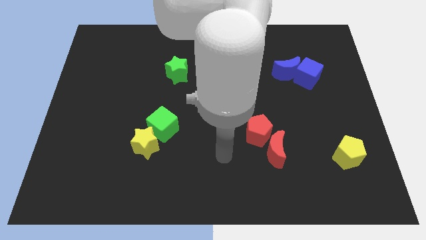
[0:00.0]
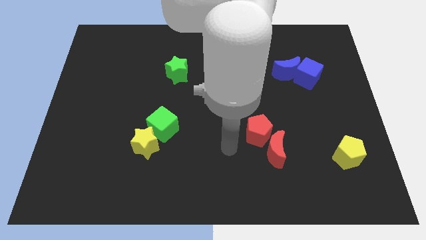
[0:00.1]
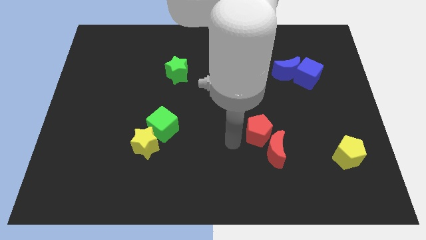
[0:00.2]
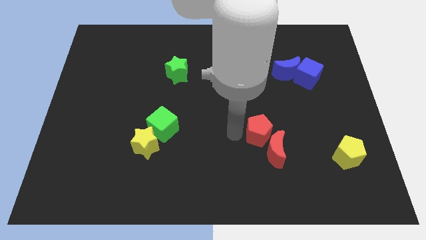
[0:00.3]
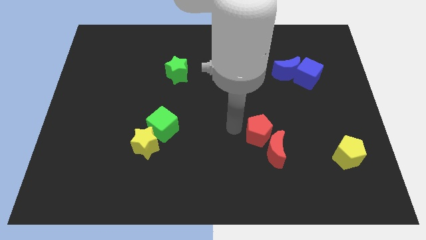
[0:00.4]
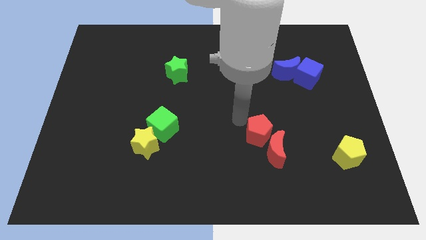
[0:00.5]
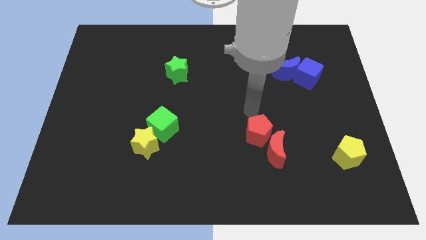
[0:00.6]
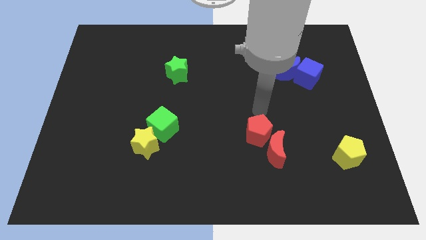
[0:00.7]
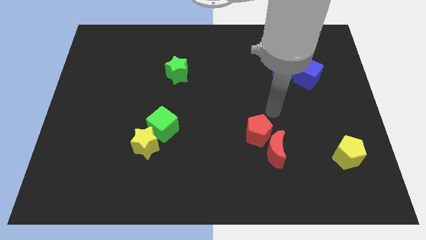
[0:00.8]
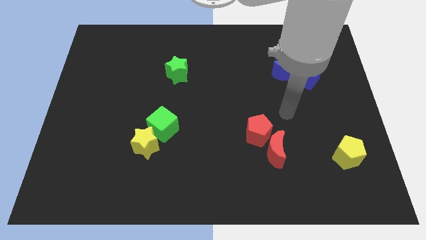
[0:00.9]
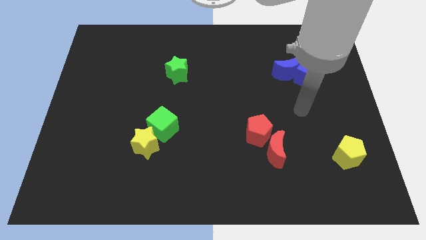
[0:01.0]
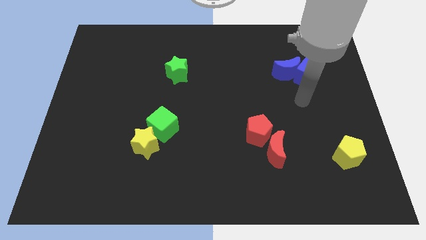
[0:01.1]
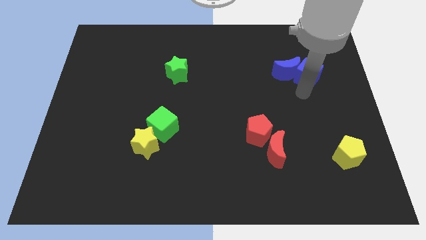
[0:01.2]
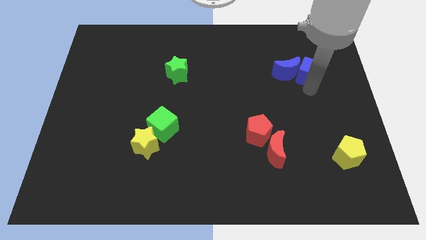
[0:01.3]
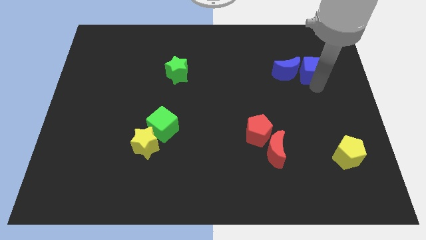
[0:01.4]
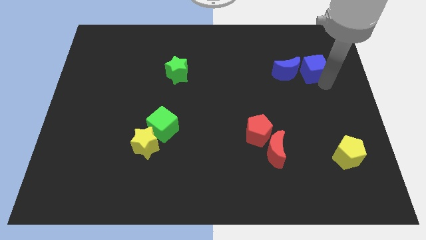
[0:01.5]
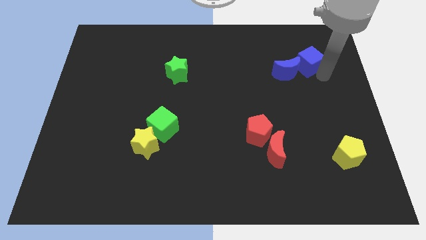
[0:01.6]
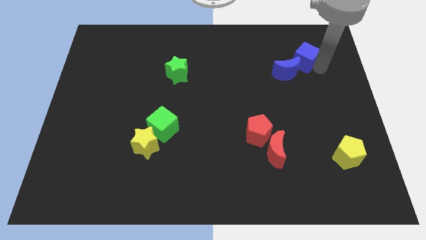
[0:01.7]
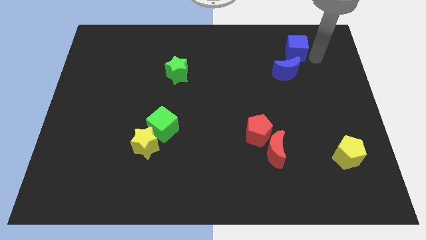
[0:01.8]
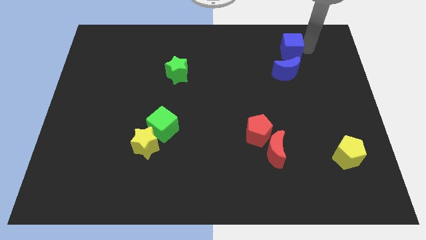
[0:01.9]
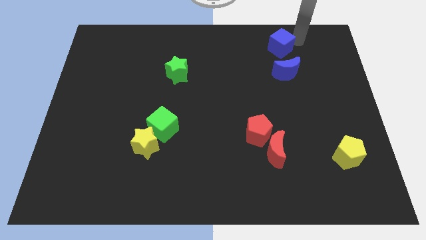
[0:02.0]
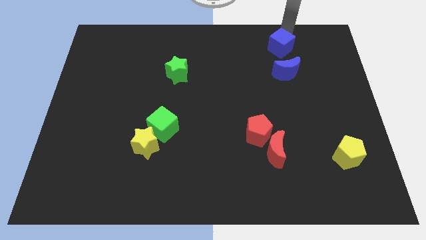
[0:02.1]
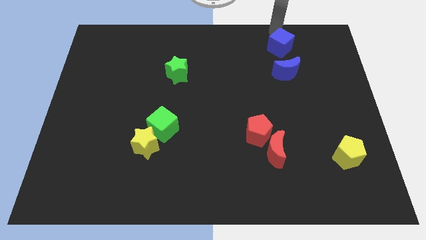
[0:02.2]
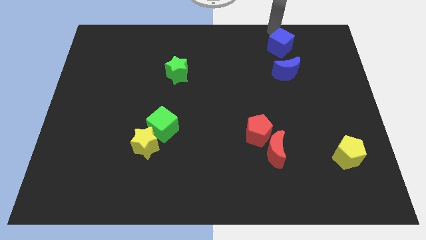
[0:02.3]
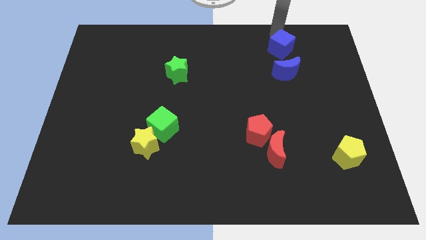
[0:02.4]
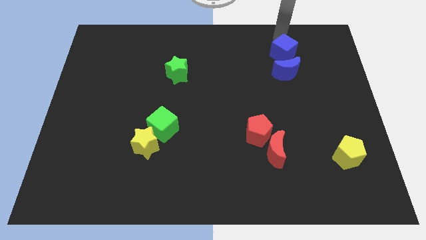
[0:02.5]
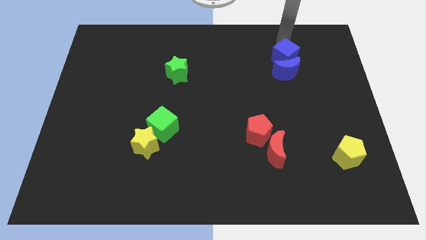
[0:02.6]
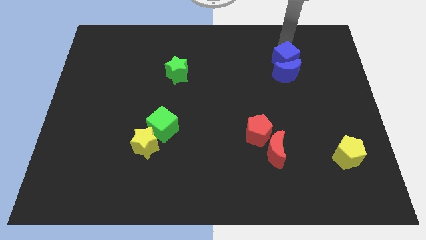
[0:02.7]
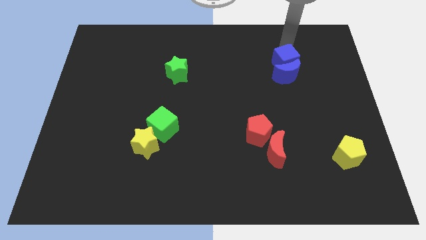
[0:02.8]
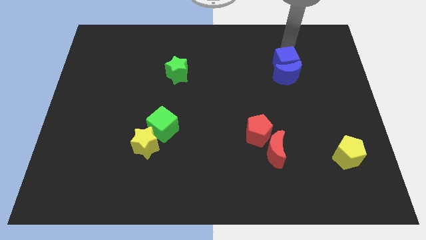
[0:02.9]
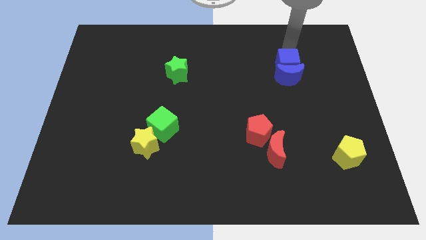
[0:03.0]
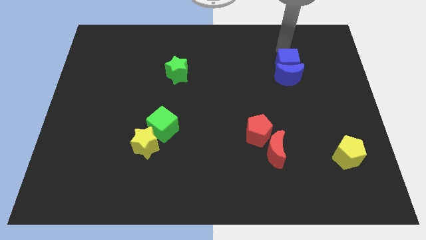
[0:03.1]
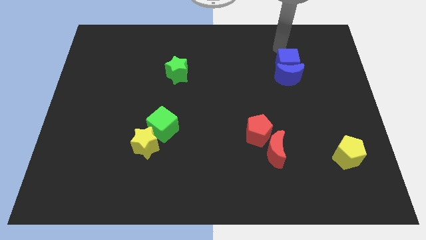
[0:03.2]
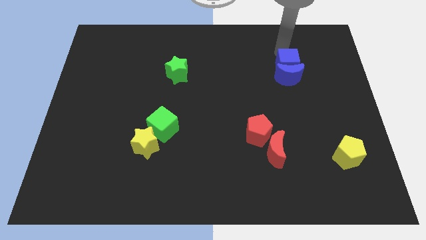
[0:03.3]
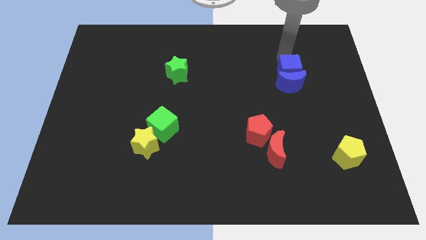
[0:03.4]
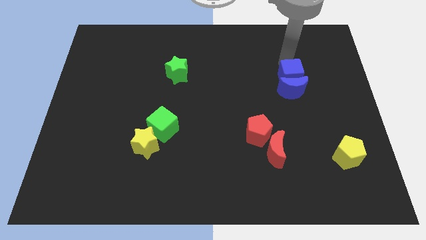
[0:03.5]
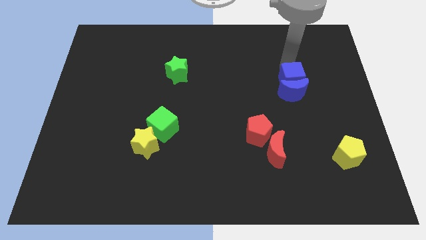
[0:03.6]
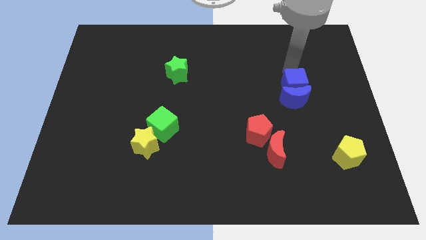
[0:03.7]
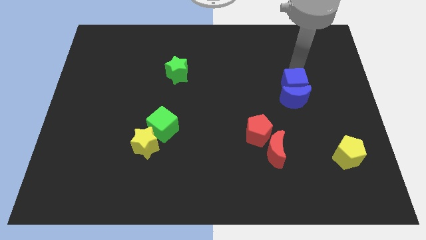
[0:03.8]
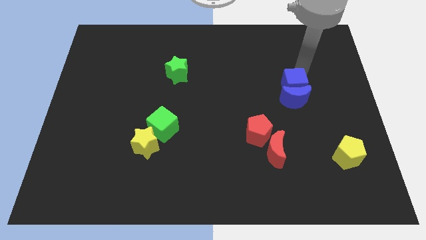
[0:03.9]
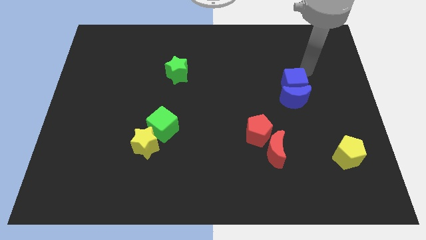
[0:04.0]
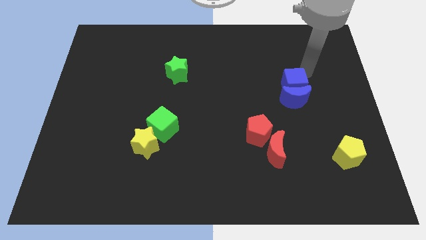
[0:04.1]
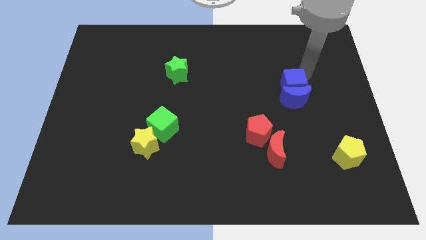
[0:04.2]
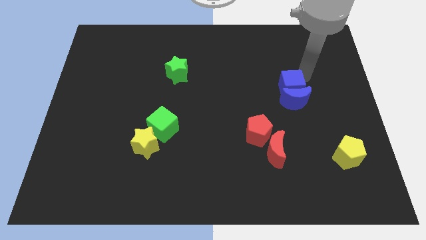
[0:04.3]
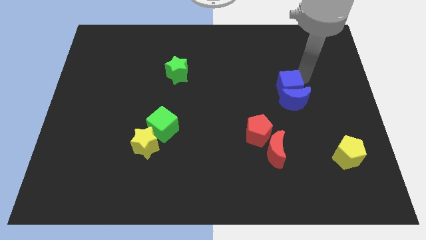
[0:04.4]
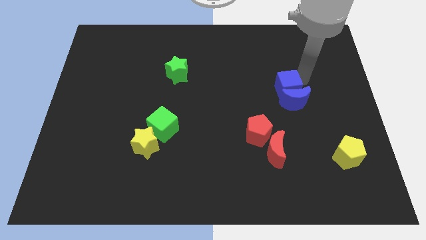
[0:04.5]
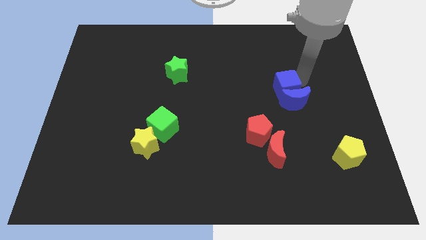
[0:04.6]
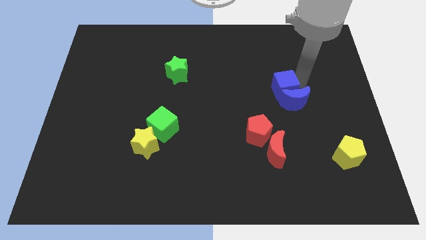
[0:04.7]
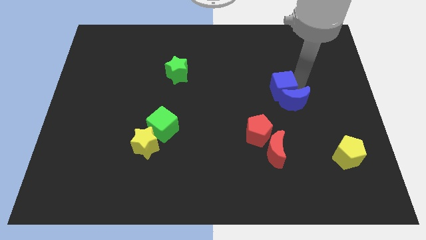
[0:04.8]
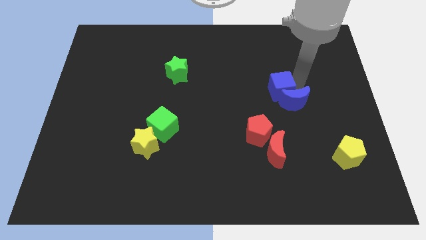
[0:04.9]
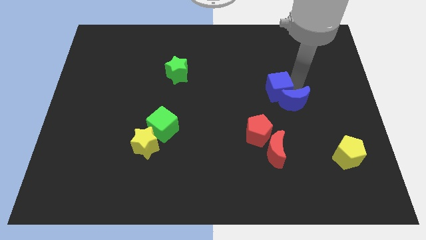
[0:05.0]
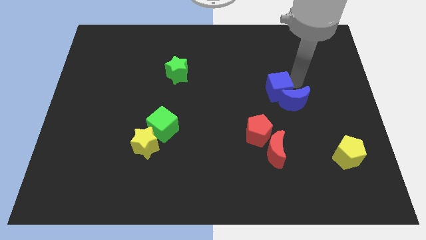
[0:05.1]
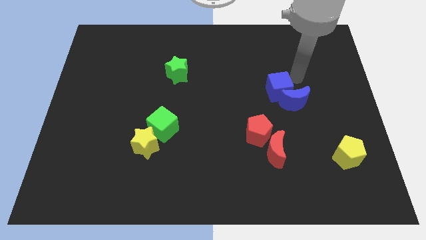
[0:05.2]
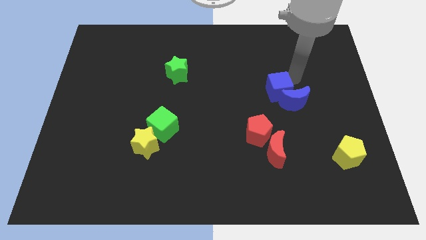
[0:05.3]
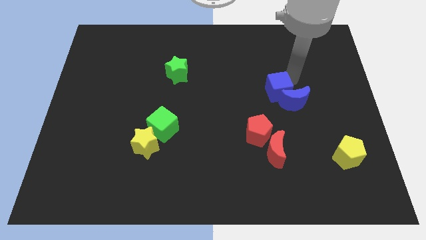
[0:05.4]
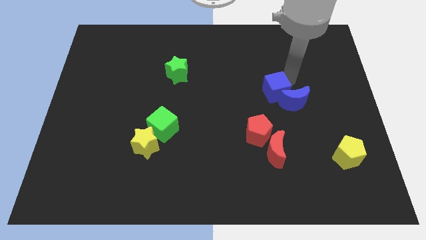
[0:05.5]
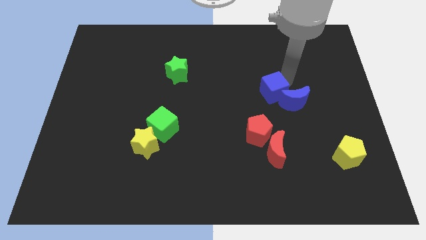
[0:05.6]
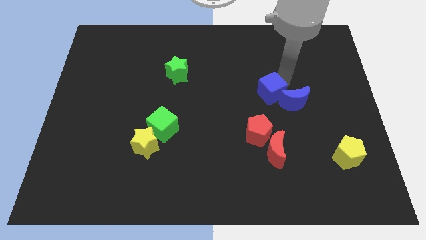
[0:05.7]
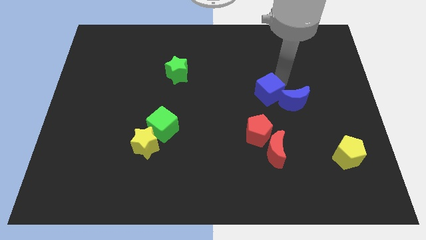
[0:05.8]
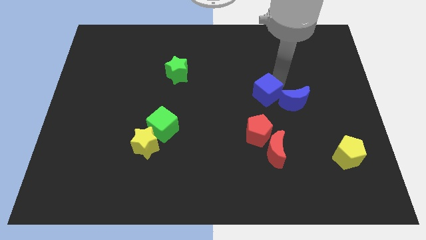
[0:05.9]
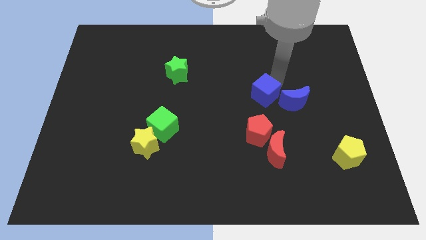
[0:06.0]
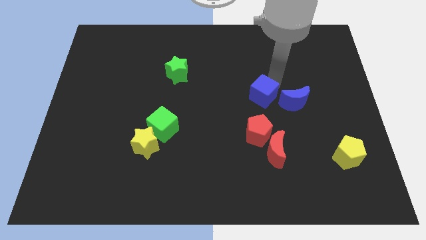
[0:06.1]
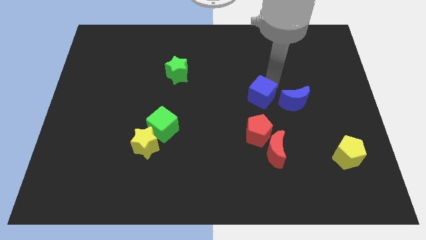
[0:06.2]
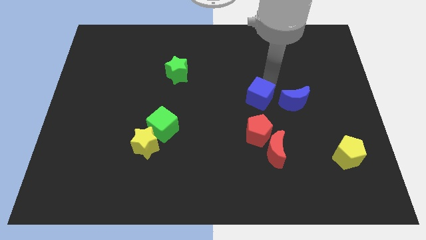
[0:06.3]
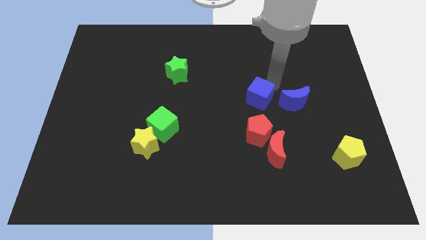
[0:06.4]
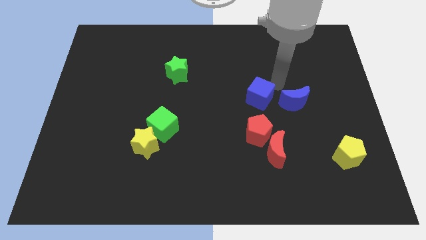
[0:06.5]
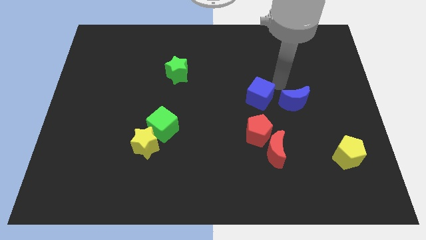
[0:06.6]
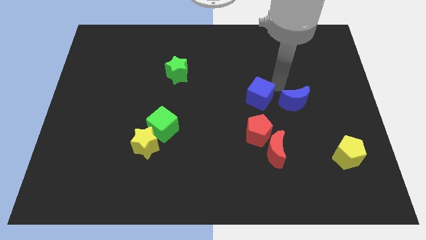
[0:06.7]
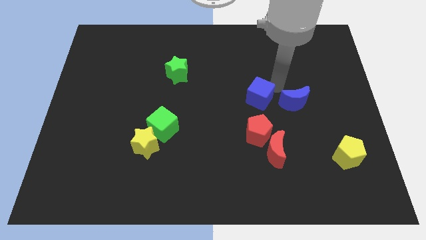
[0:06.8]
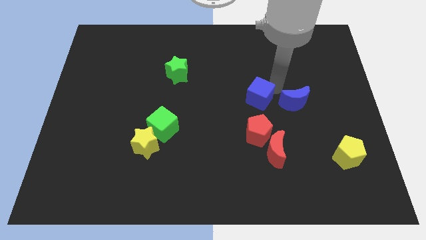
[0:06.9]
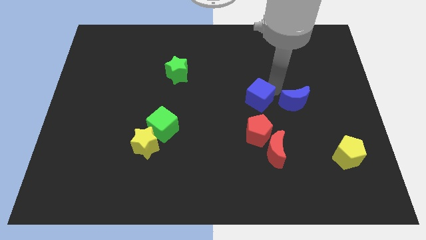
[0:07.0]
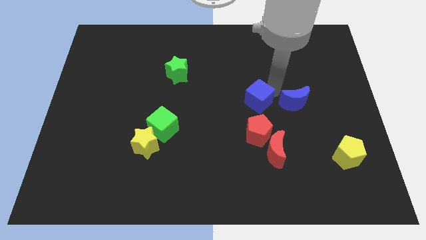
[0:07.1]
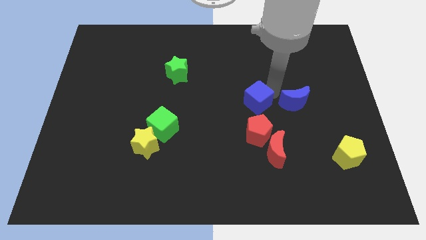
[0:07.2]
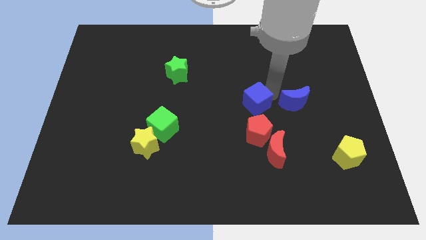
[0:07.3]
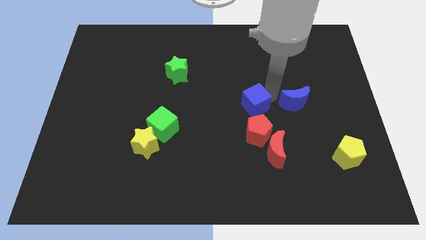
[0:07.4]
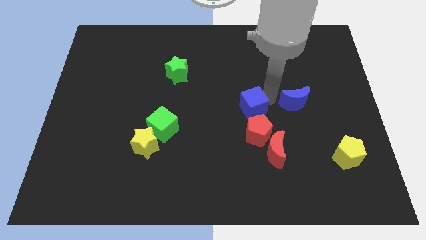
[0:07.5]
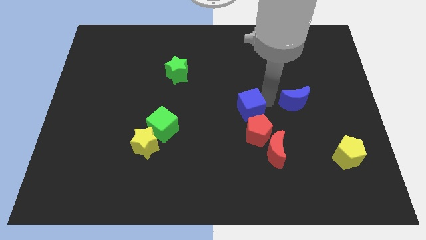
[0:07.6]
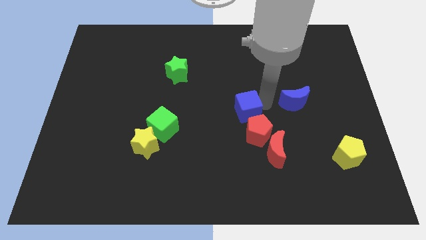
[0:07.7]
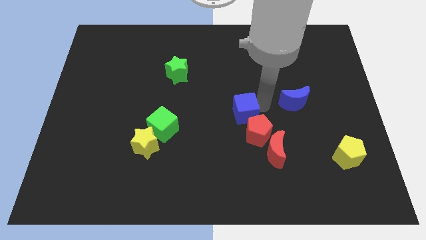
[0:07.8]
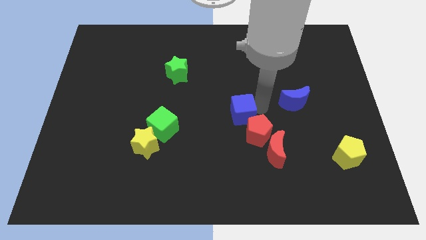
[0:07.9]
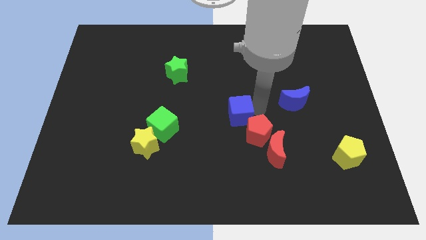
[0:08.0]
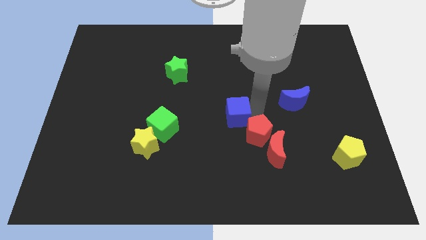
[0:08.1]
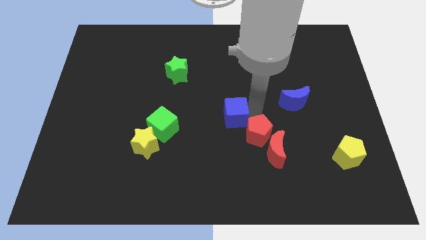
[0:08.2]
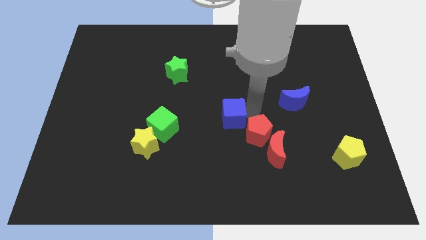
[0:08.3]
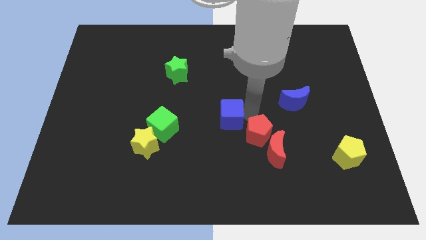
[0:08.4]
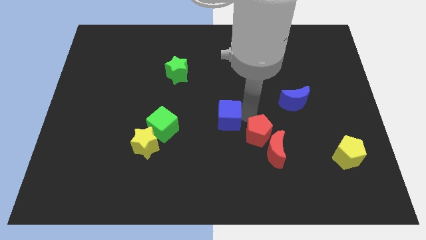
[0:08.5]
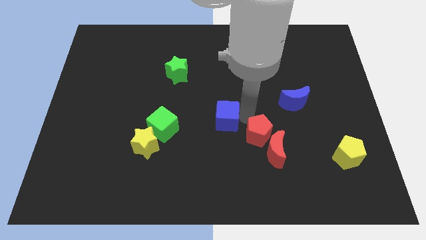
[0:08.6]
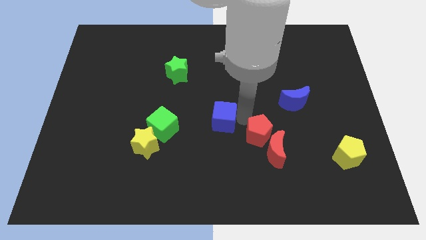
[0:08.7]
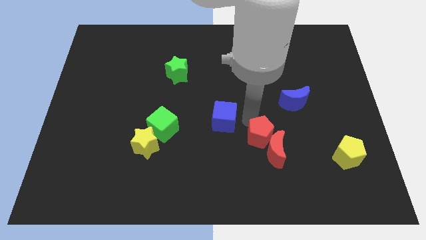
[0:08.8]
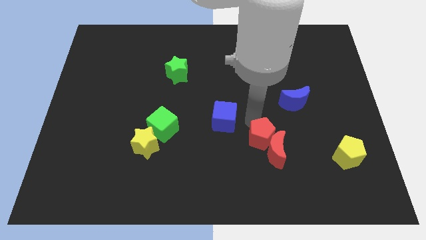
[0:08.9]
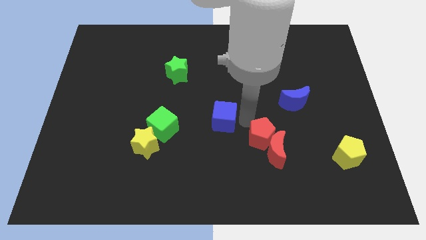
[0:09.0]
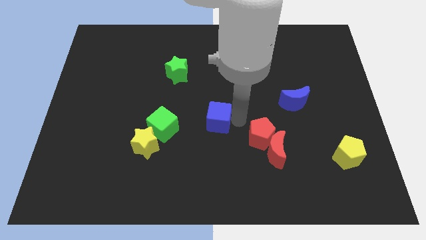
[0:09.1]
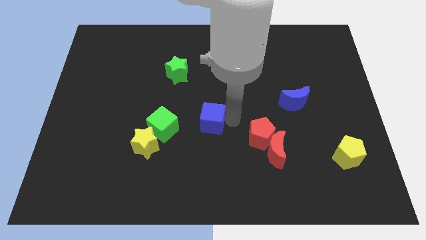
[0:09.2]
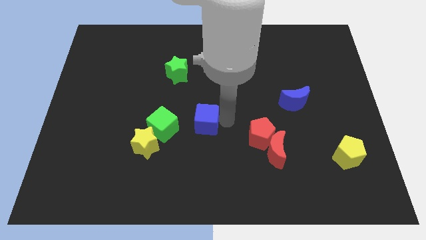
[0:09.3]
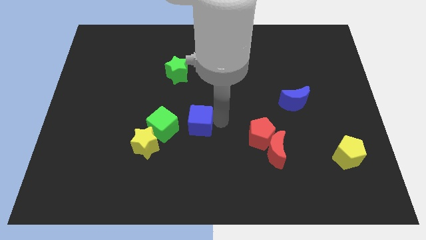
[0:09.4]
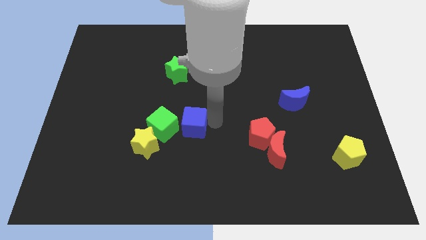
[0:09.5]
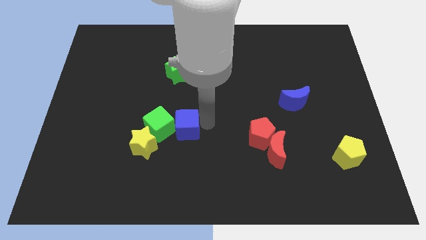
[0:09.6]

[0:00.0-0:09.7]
put the blue cube close to the green cube
